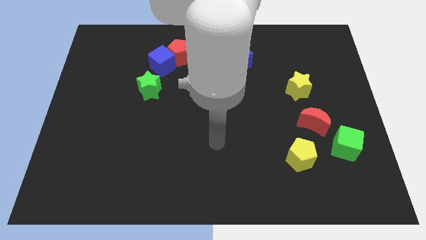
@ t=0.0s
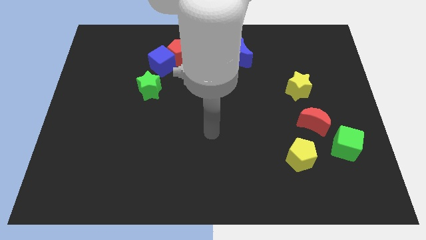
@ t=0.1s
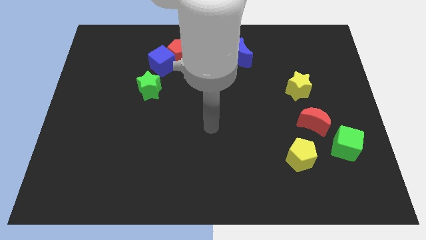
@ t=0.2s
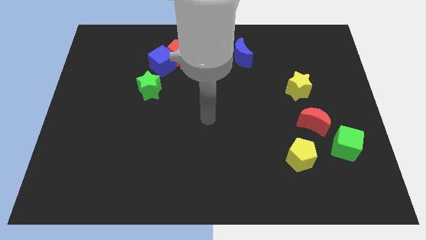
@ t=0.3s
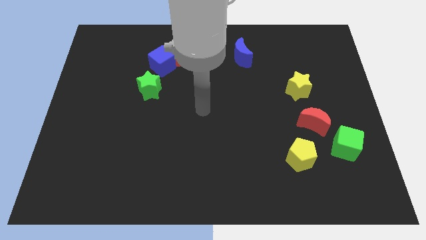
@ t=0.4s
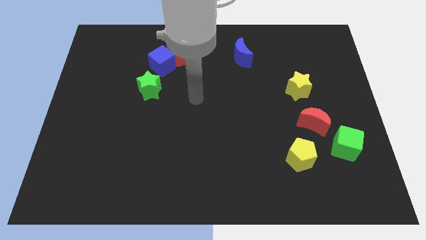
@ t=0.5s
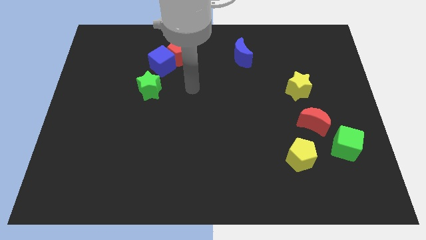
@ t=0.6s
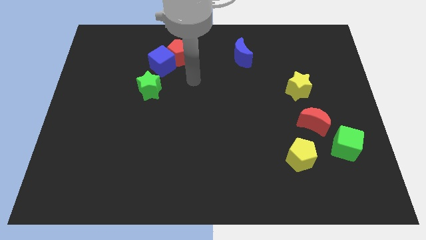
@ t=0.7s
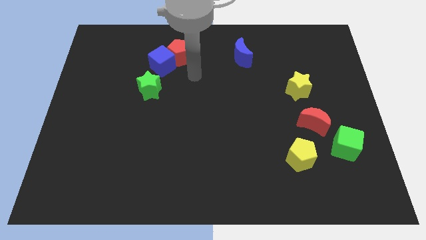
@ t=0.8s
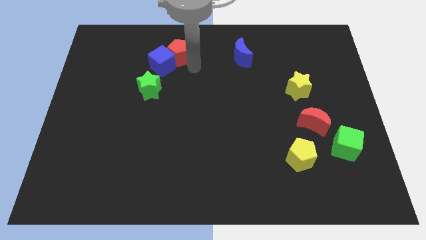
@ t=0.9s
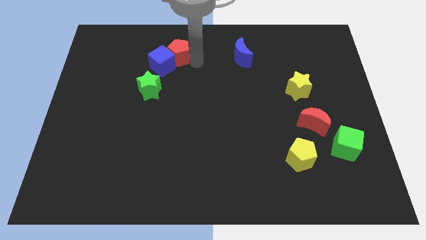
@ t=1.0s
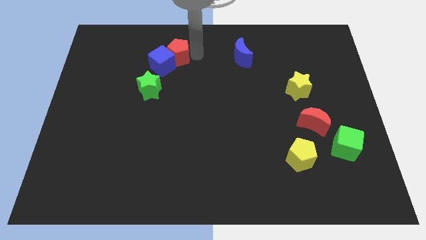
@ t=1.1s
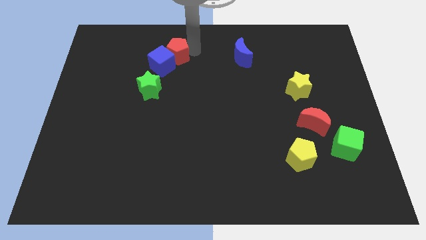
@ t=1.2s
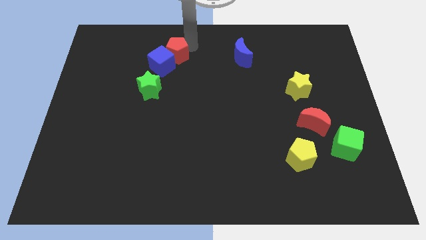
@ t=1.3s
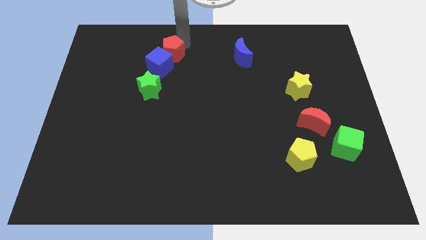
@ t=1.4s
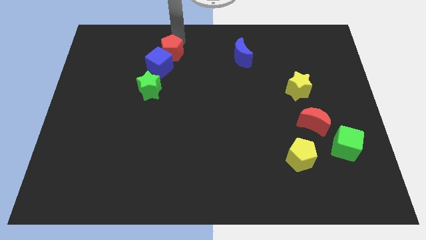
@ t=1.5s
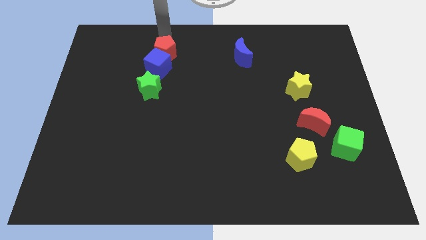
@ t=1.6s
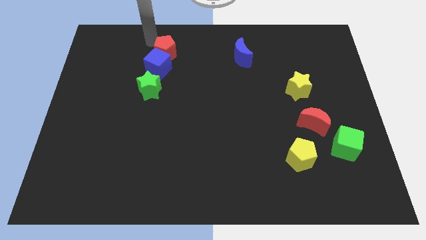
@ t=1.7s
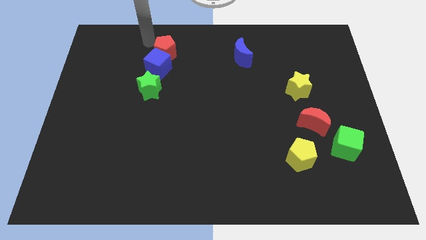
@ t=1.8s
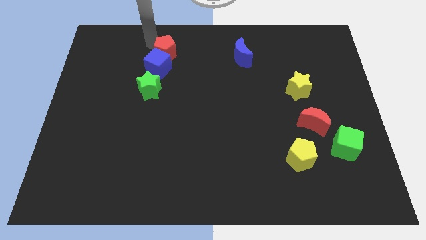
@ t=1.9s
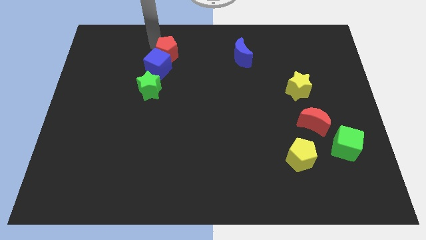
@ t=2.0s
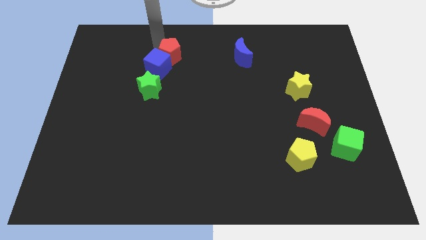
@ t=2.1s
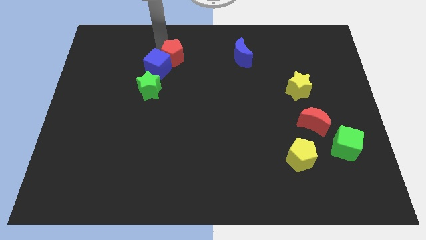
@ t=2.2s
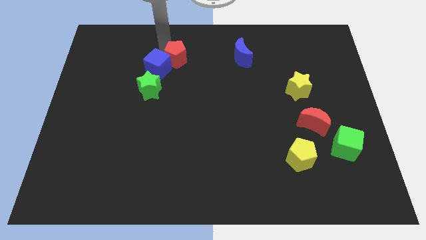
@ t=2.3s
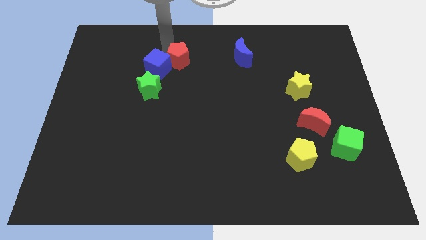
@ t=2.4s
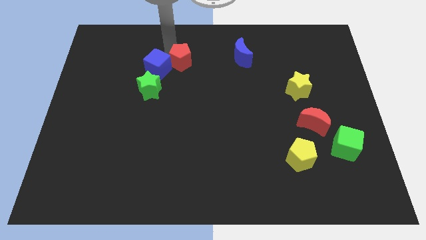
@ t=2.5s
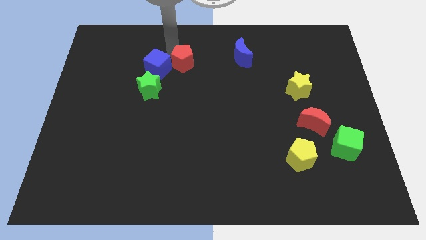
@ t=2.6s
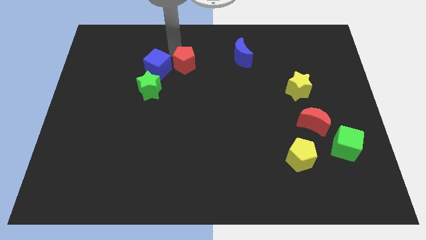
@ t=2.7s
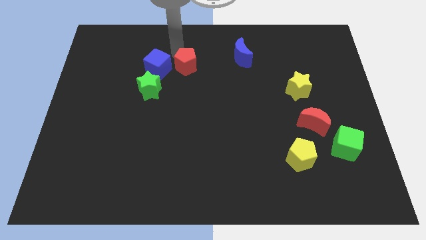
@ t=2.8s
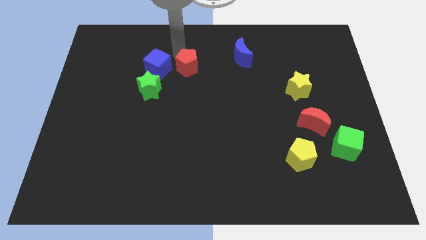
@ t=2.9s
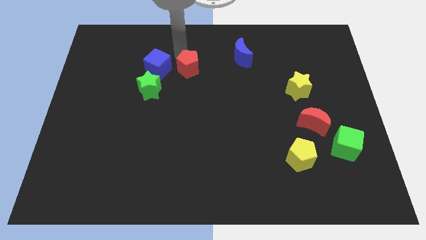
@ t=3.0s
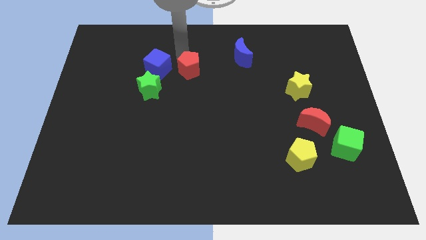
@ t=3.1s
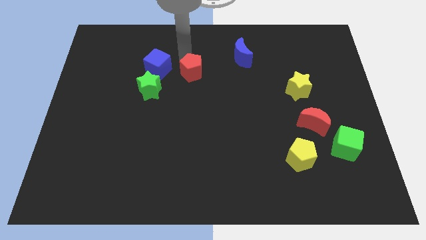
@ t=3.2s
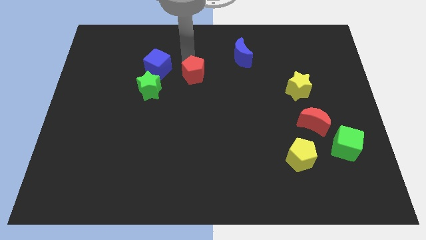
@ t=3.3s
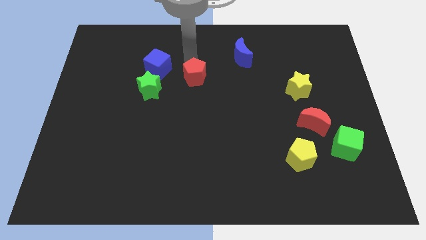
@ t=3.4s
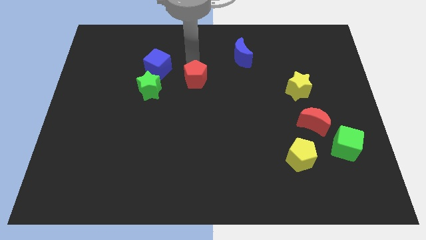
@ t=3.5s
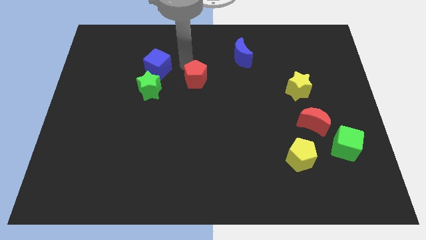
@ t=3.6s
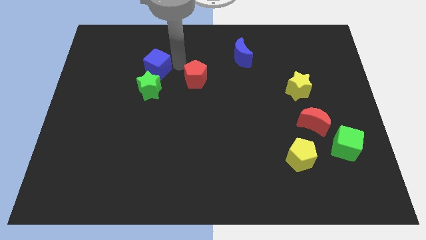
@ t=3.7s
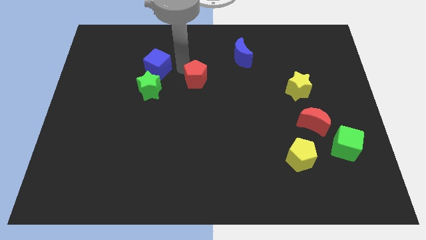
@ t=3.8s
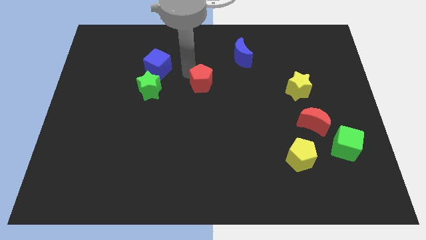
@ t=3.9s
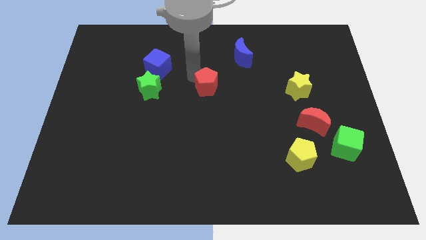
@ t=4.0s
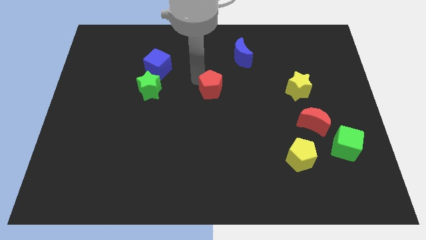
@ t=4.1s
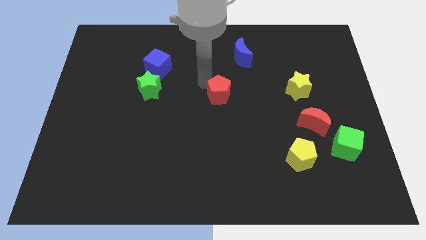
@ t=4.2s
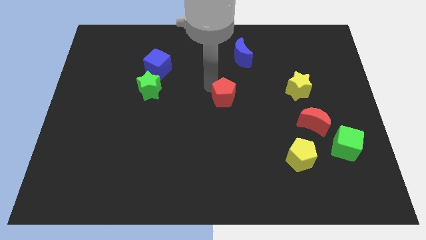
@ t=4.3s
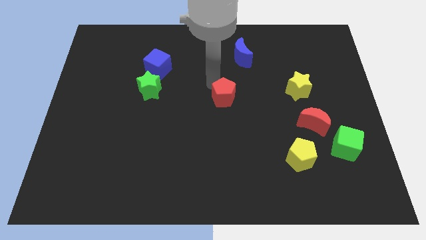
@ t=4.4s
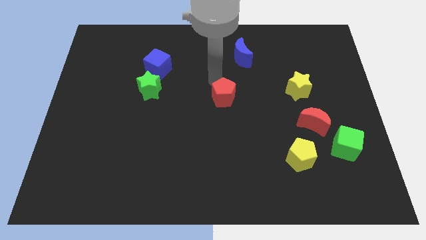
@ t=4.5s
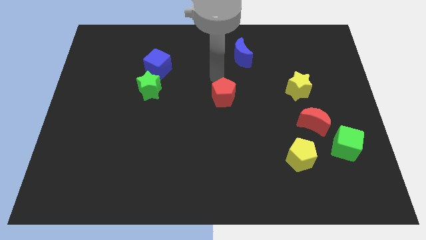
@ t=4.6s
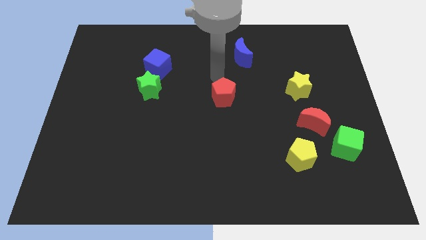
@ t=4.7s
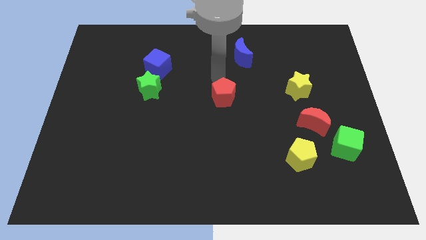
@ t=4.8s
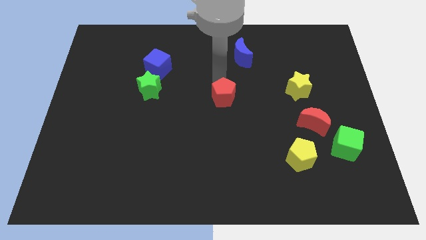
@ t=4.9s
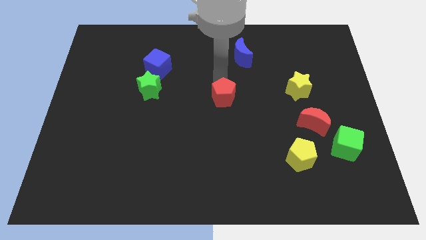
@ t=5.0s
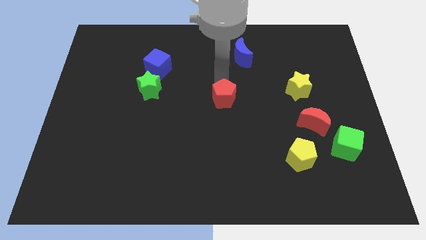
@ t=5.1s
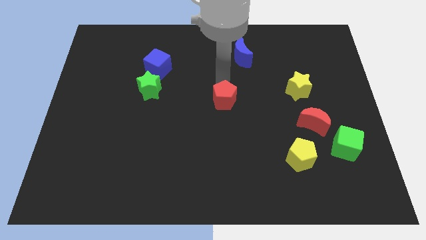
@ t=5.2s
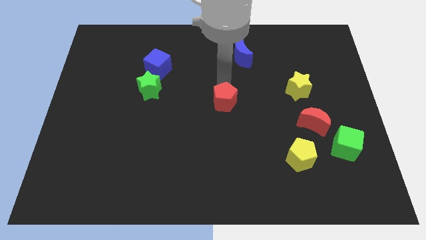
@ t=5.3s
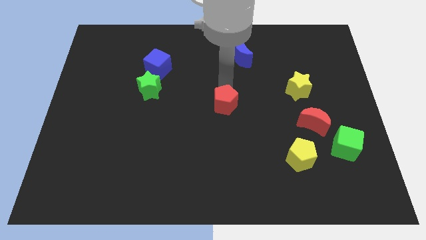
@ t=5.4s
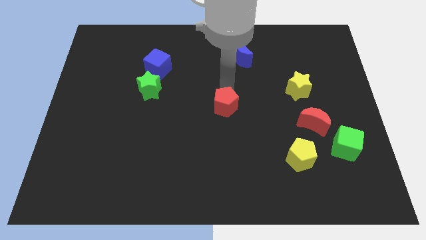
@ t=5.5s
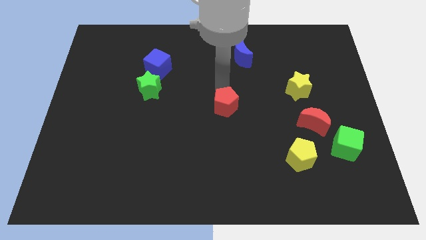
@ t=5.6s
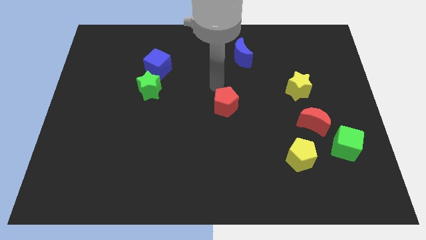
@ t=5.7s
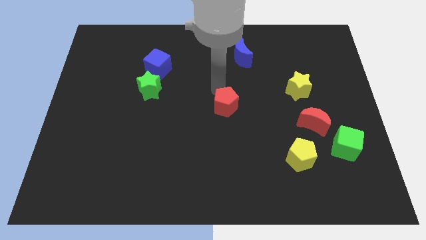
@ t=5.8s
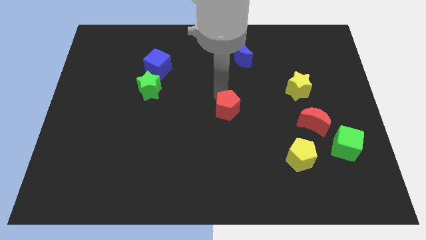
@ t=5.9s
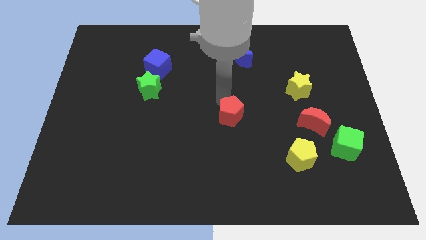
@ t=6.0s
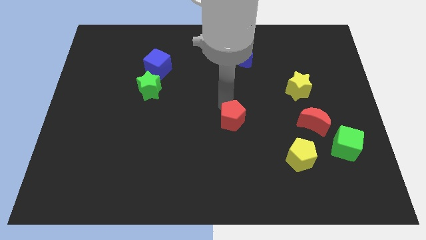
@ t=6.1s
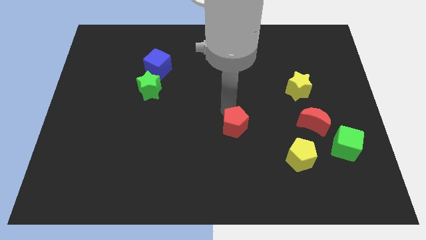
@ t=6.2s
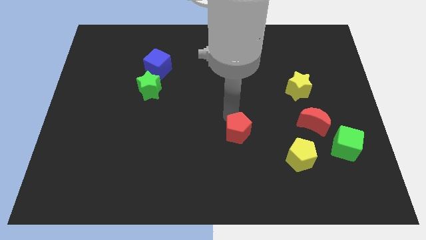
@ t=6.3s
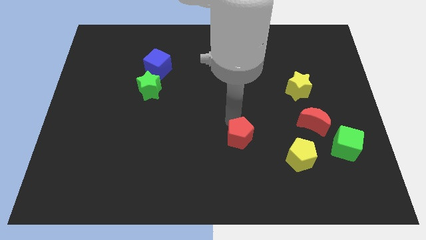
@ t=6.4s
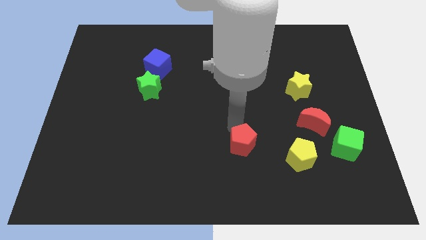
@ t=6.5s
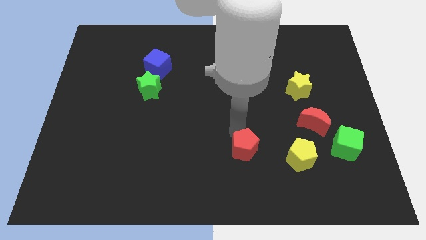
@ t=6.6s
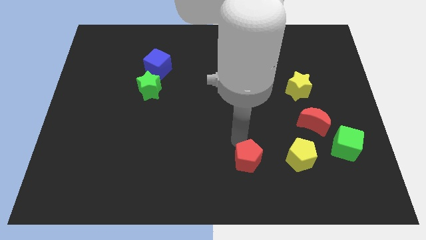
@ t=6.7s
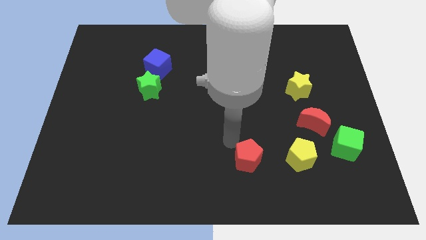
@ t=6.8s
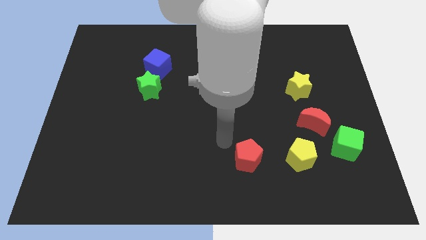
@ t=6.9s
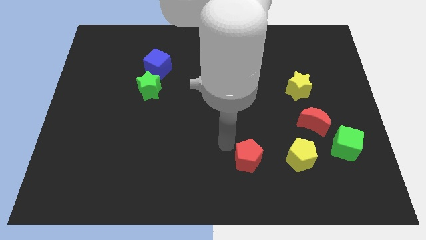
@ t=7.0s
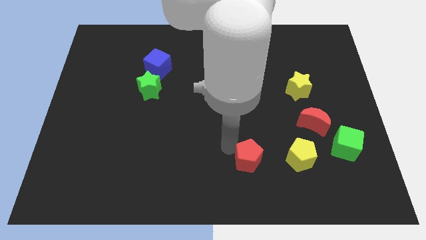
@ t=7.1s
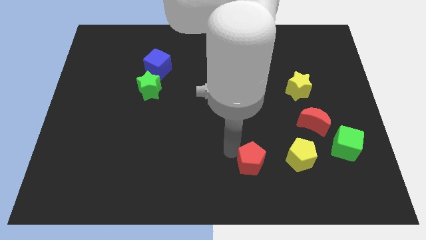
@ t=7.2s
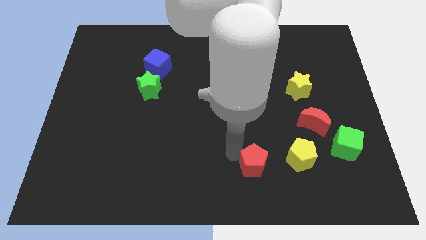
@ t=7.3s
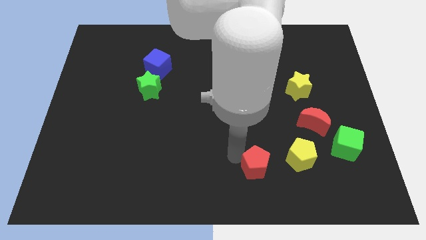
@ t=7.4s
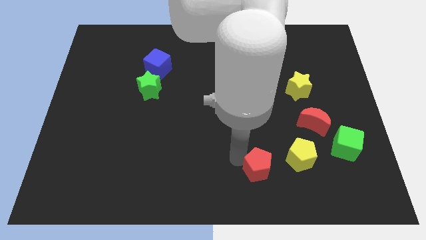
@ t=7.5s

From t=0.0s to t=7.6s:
slide the red pentagon diagonally down and to the left of the yellow pentagon
